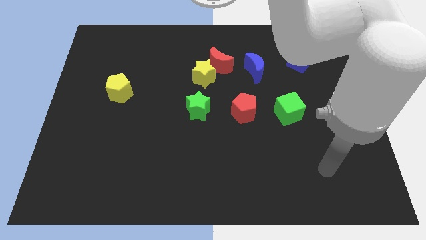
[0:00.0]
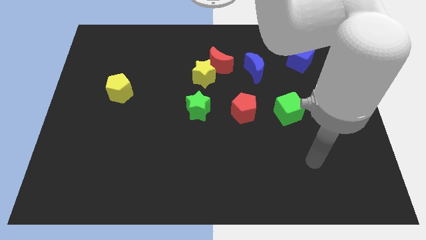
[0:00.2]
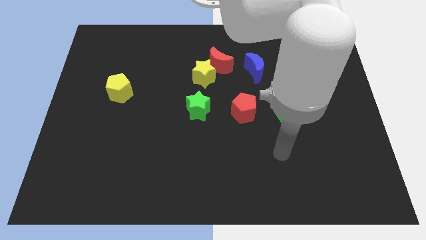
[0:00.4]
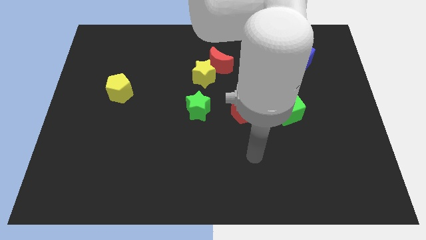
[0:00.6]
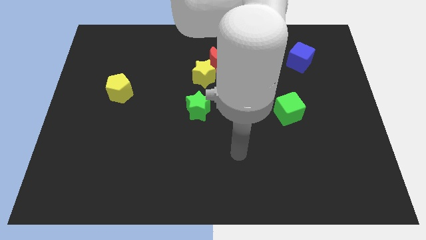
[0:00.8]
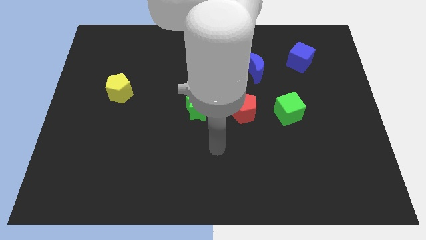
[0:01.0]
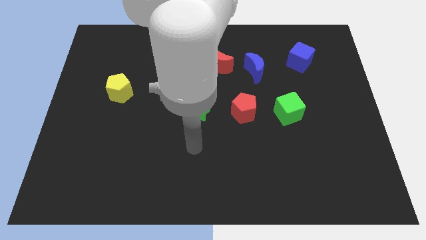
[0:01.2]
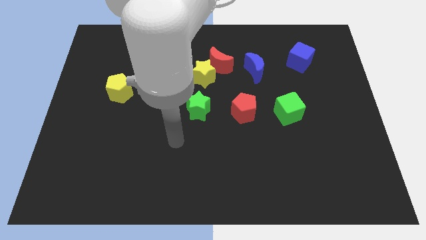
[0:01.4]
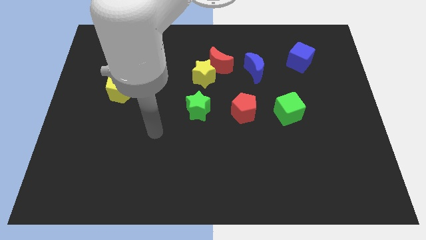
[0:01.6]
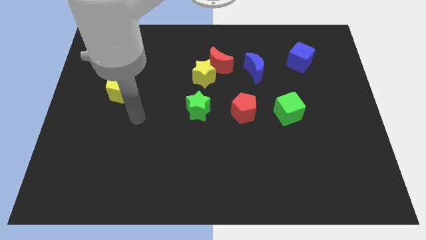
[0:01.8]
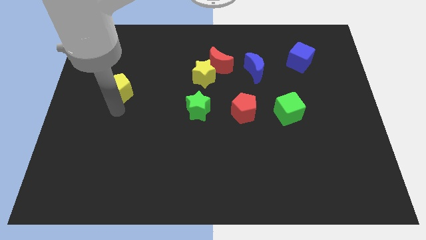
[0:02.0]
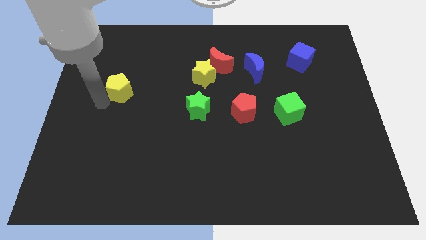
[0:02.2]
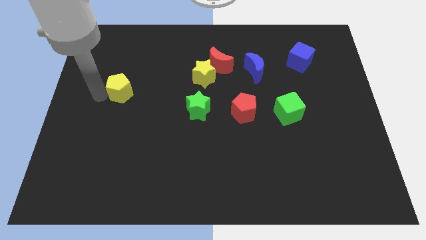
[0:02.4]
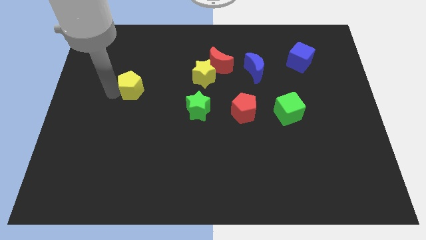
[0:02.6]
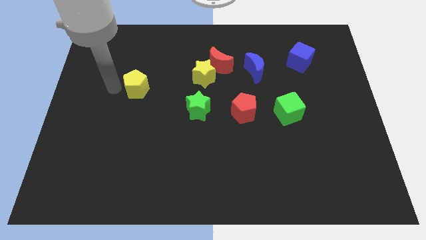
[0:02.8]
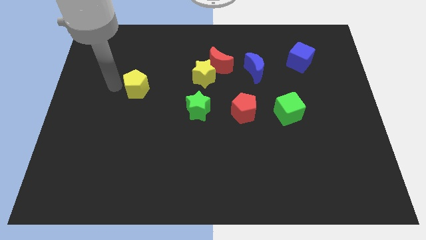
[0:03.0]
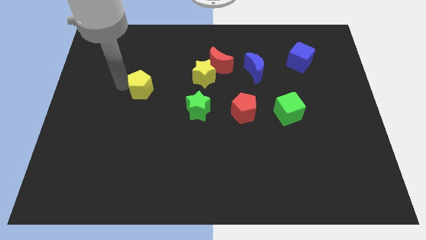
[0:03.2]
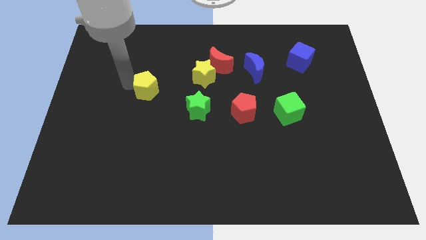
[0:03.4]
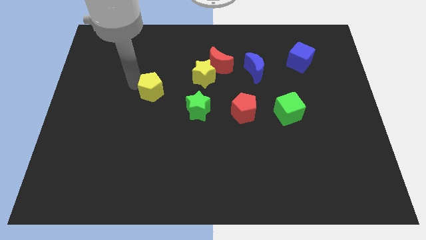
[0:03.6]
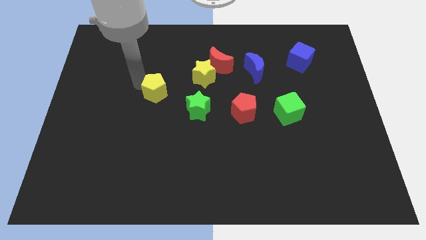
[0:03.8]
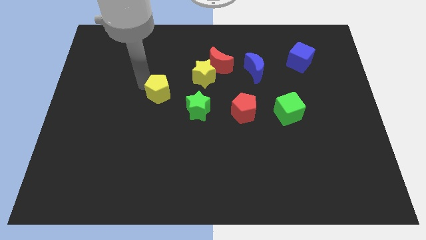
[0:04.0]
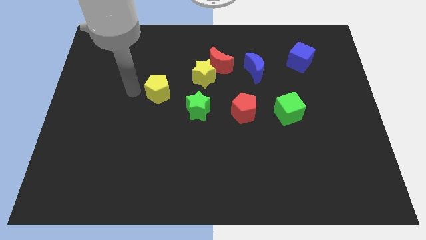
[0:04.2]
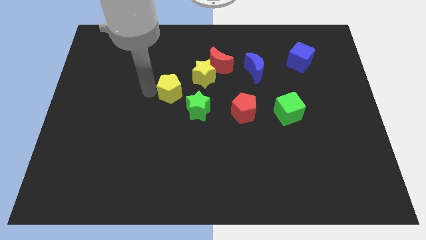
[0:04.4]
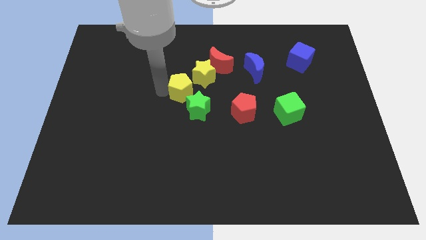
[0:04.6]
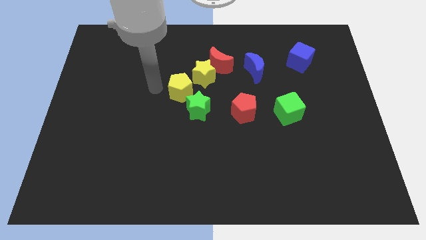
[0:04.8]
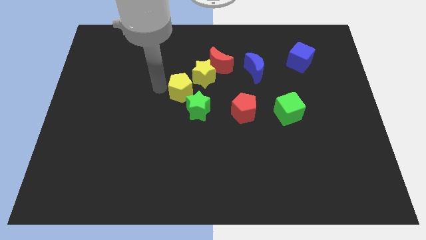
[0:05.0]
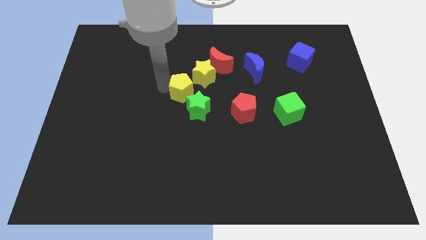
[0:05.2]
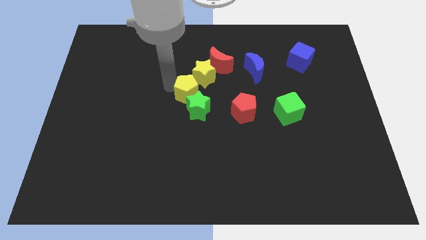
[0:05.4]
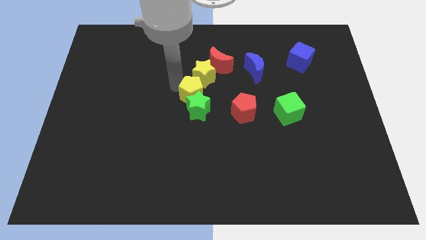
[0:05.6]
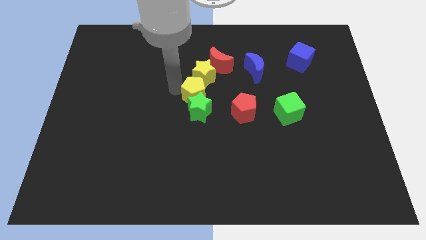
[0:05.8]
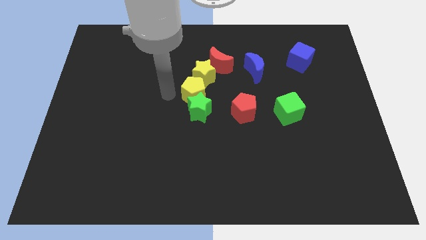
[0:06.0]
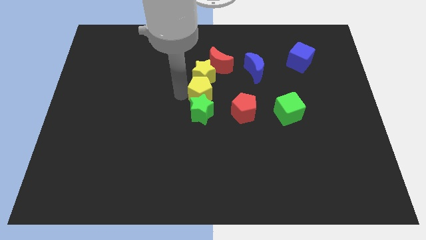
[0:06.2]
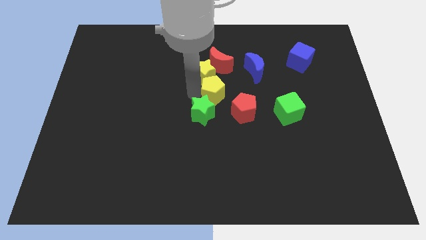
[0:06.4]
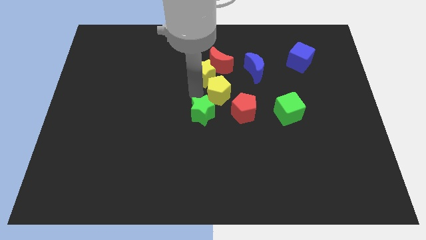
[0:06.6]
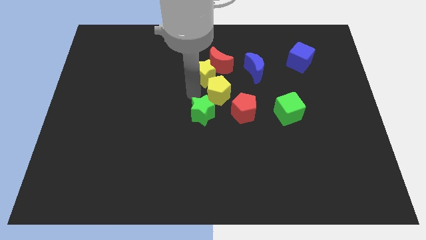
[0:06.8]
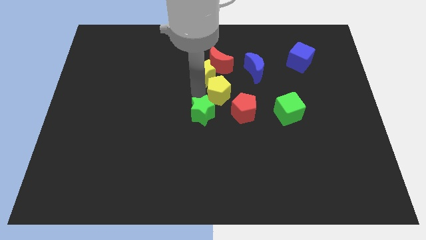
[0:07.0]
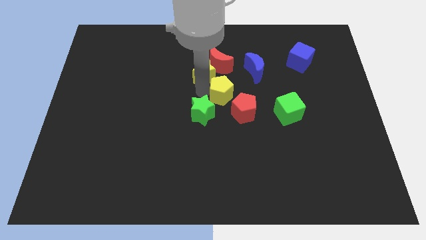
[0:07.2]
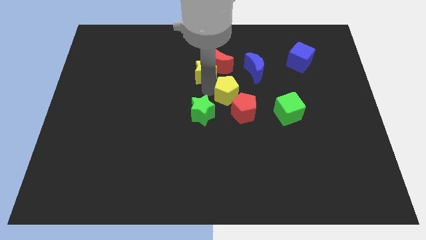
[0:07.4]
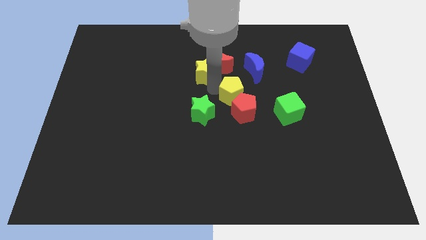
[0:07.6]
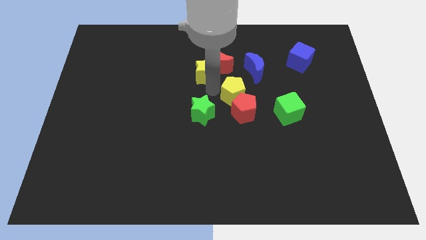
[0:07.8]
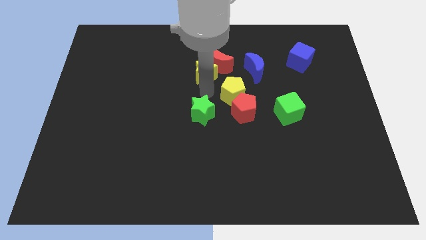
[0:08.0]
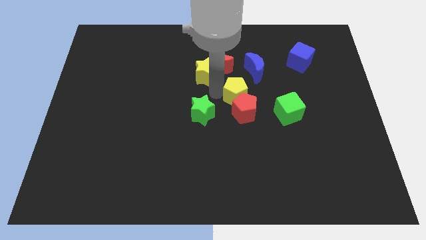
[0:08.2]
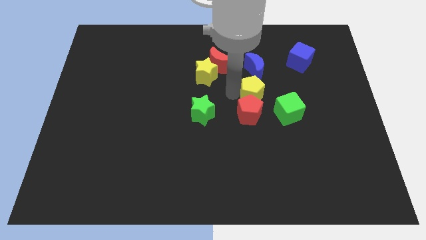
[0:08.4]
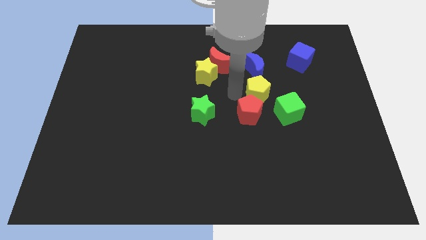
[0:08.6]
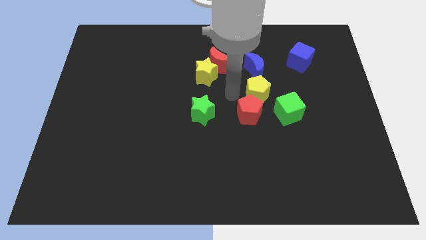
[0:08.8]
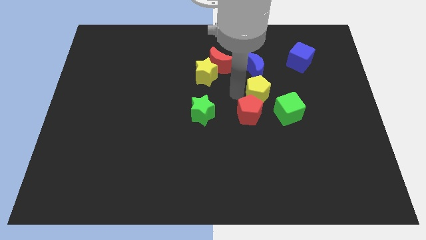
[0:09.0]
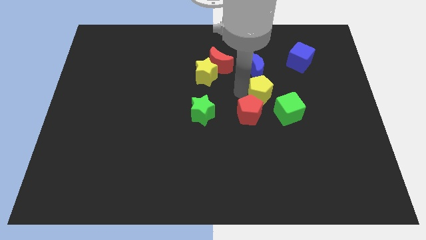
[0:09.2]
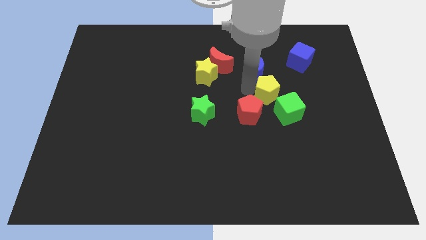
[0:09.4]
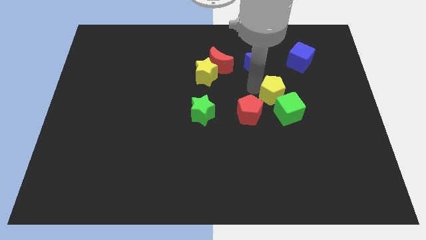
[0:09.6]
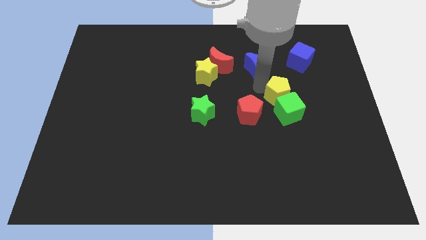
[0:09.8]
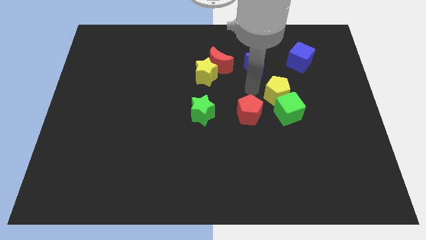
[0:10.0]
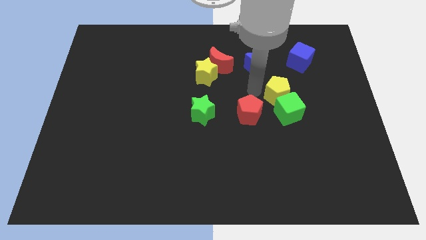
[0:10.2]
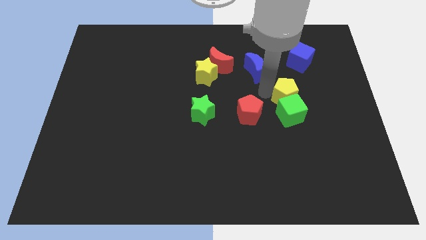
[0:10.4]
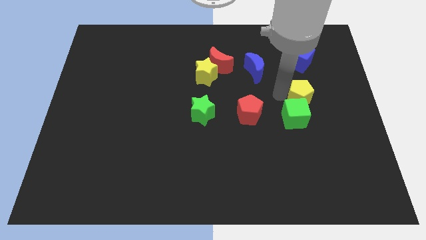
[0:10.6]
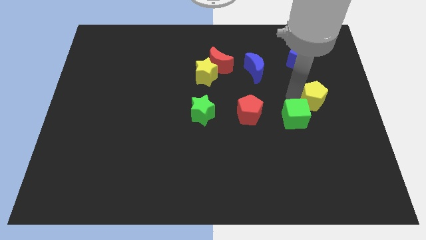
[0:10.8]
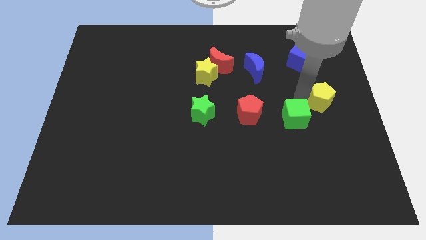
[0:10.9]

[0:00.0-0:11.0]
put the yellow pentagon to the right side of the board

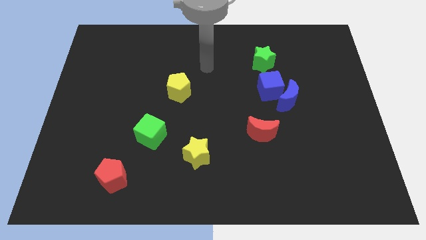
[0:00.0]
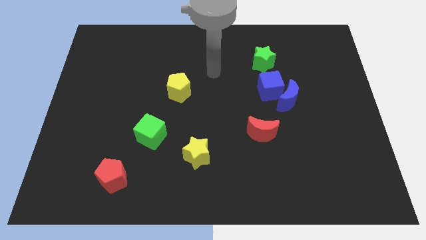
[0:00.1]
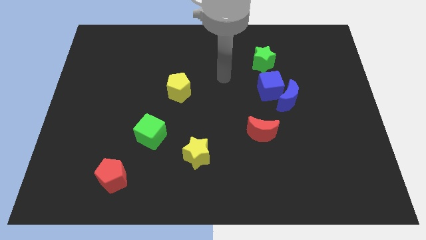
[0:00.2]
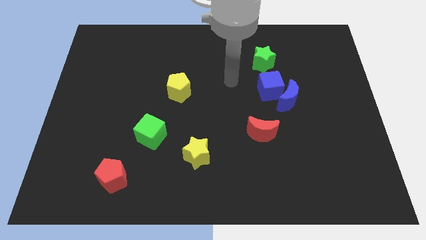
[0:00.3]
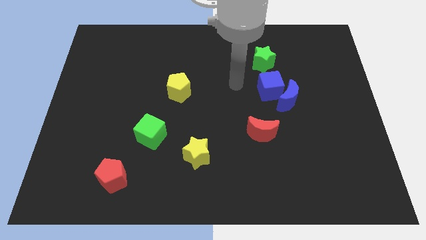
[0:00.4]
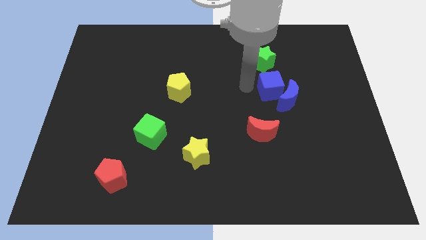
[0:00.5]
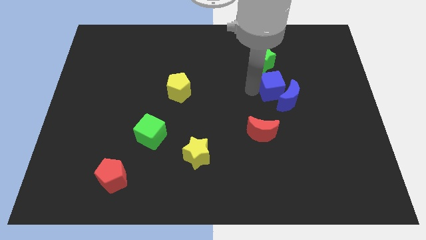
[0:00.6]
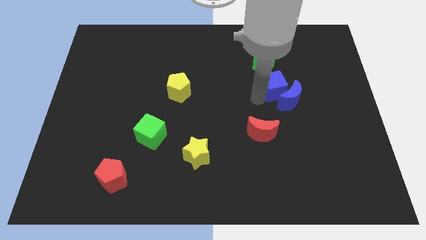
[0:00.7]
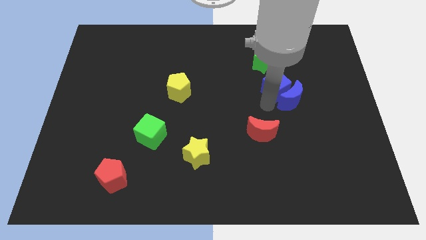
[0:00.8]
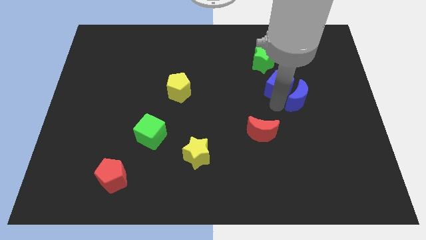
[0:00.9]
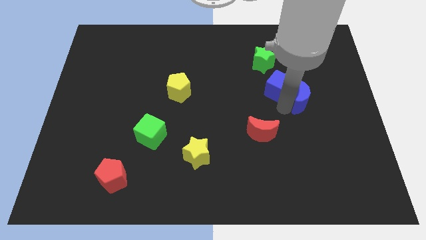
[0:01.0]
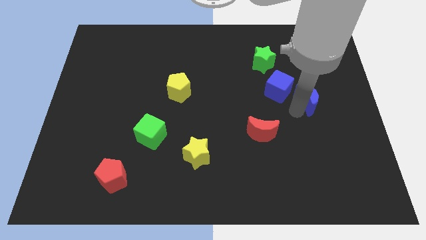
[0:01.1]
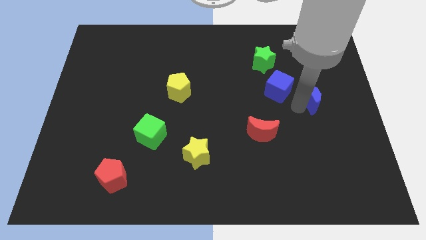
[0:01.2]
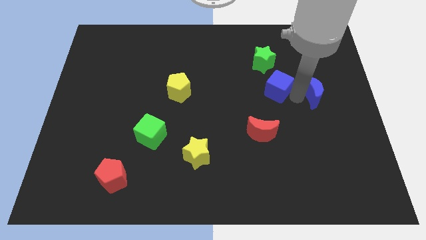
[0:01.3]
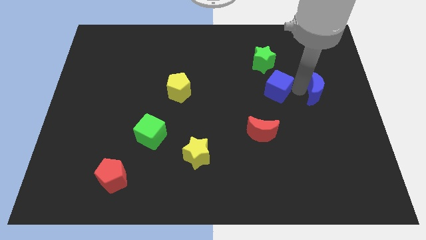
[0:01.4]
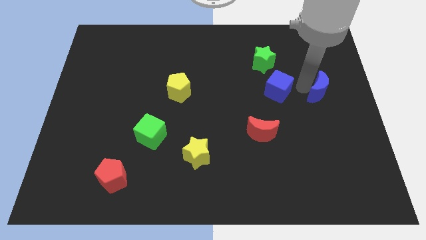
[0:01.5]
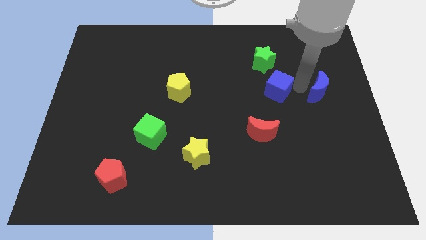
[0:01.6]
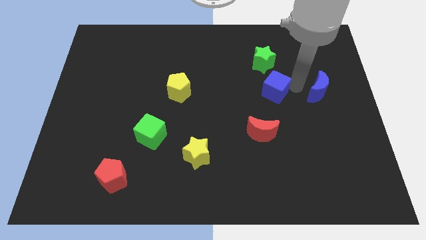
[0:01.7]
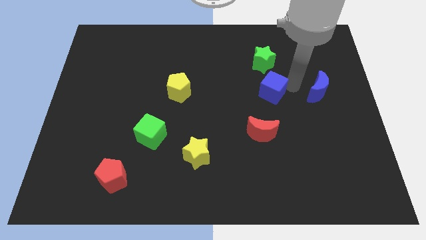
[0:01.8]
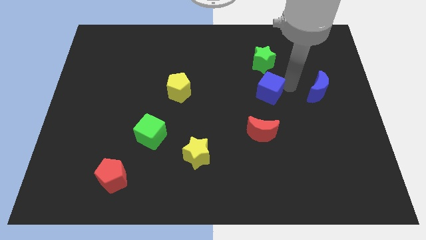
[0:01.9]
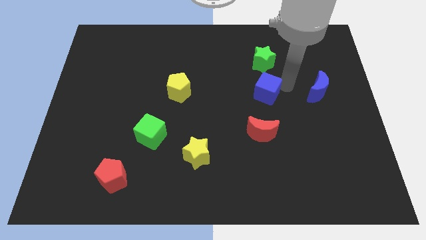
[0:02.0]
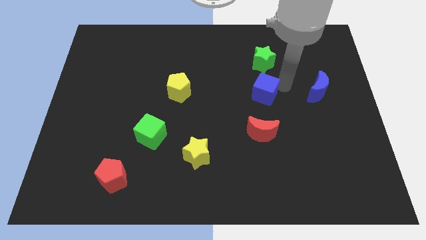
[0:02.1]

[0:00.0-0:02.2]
put the blue cube to the middle
